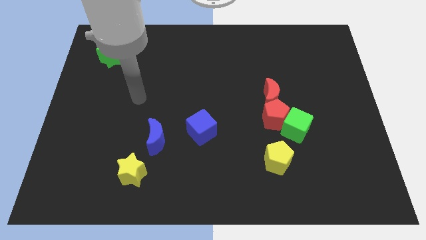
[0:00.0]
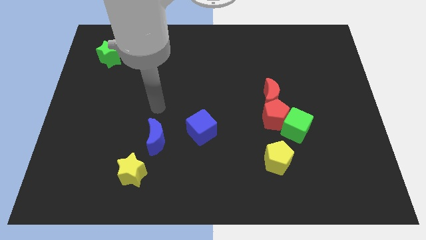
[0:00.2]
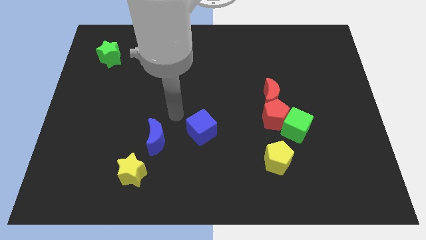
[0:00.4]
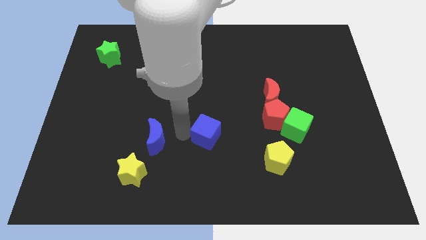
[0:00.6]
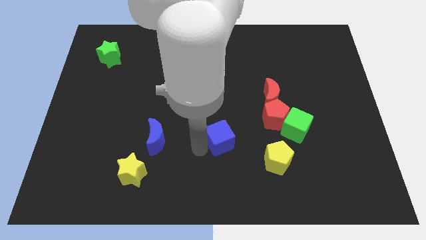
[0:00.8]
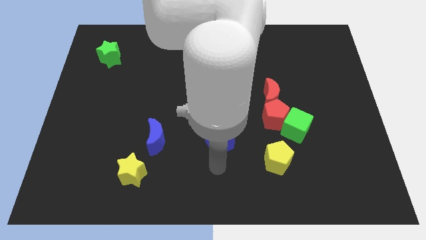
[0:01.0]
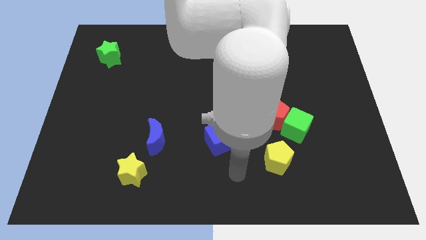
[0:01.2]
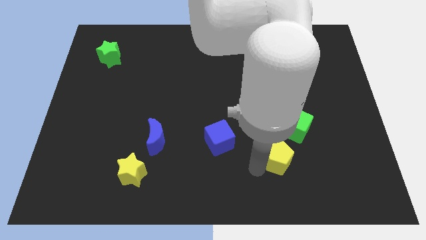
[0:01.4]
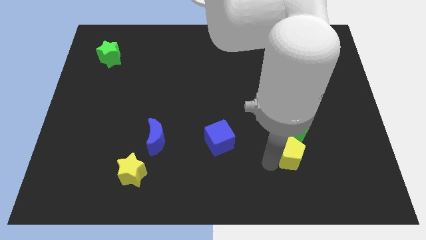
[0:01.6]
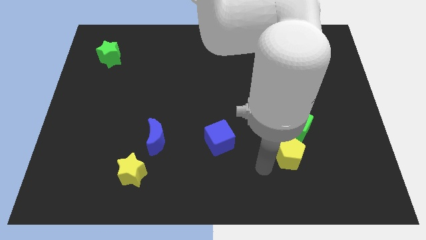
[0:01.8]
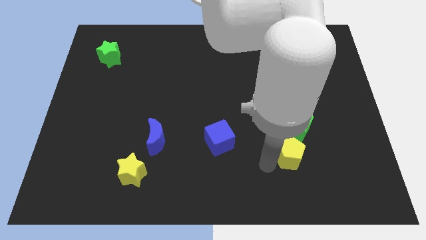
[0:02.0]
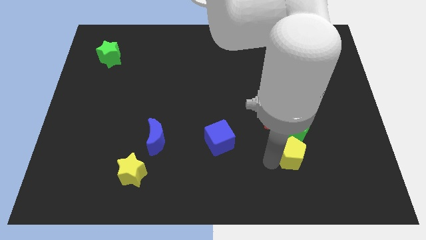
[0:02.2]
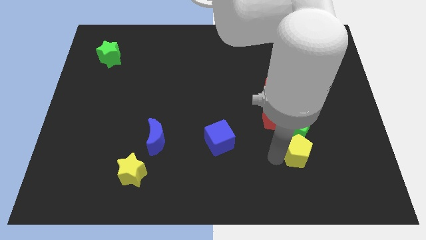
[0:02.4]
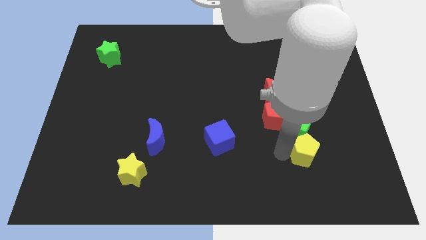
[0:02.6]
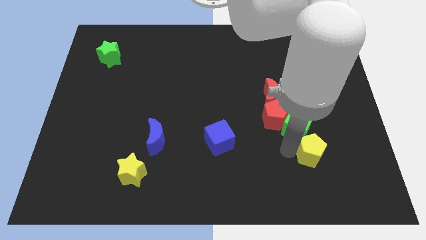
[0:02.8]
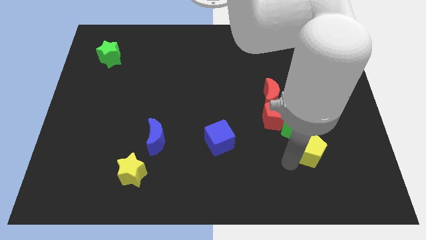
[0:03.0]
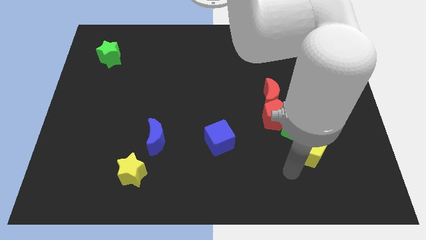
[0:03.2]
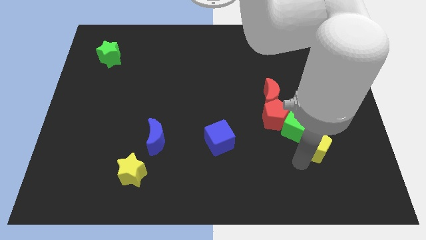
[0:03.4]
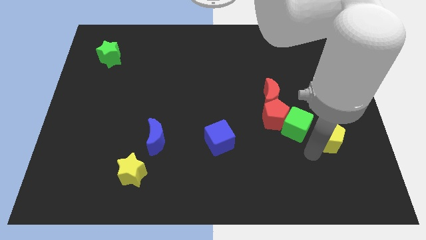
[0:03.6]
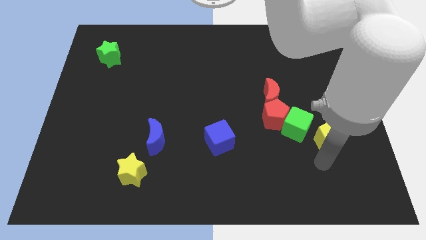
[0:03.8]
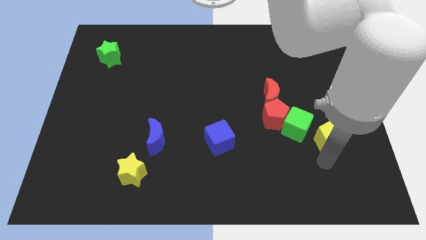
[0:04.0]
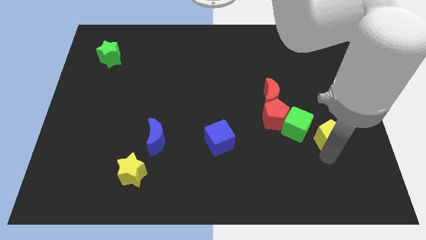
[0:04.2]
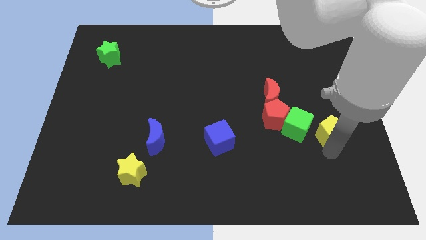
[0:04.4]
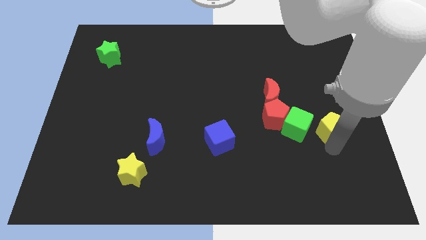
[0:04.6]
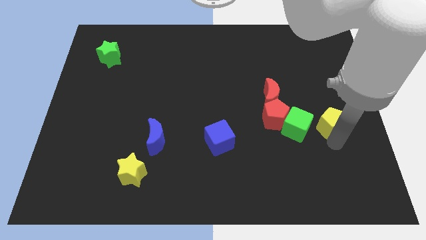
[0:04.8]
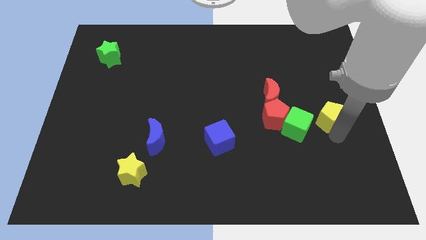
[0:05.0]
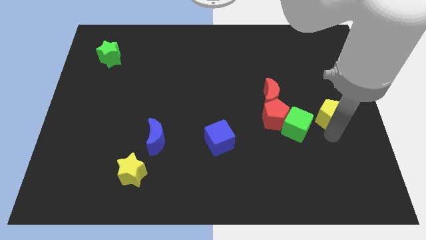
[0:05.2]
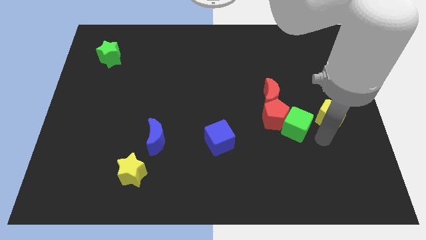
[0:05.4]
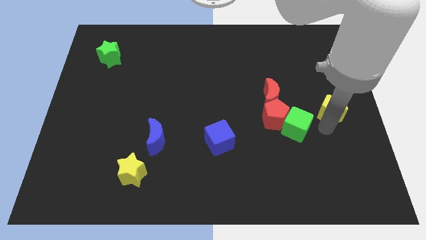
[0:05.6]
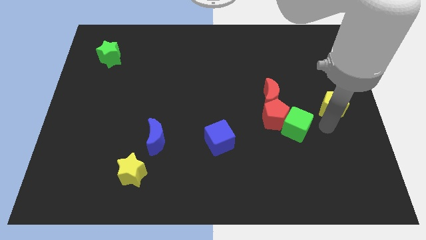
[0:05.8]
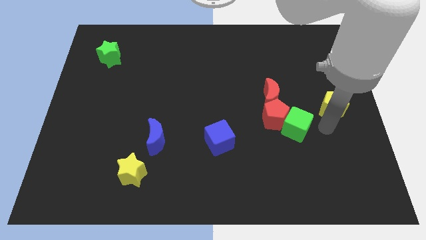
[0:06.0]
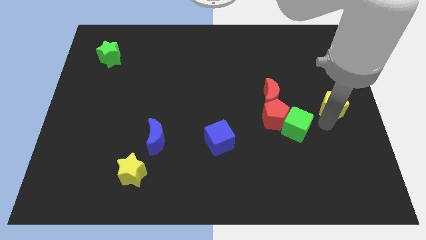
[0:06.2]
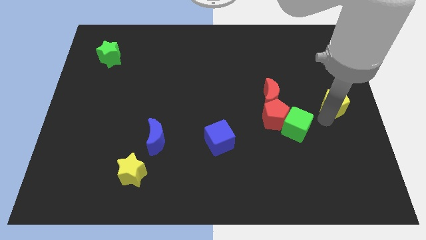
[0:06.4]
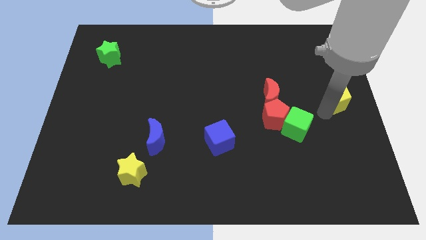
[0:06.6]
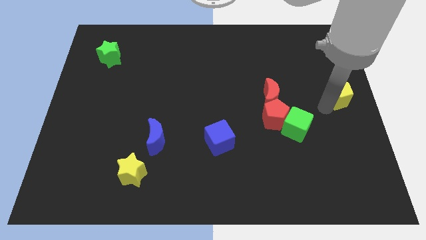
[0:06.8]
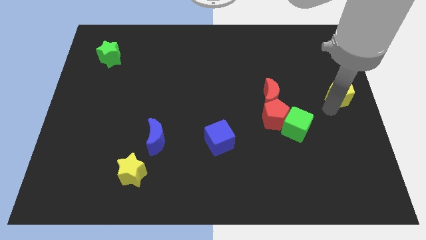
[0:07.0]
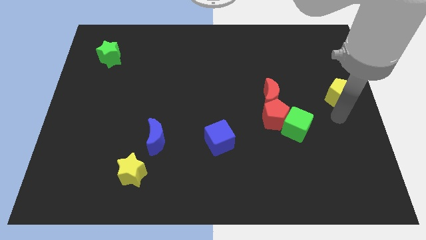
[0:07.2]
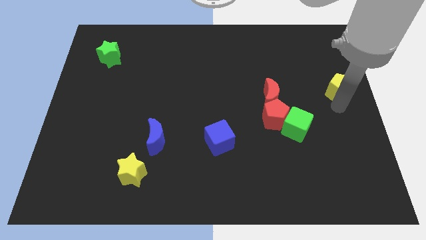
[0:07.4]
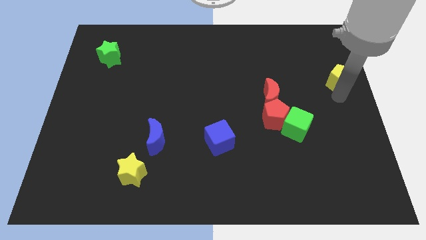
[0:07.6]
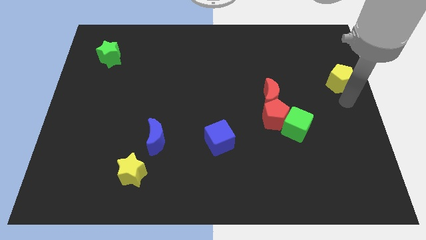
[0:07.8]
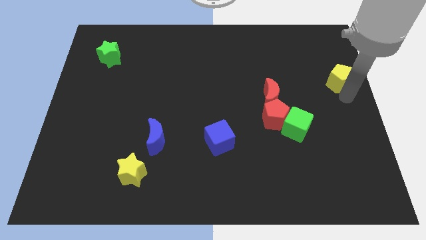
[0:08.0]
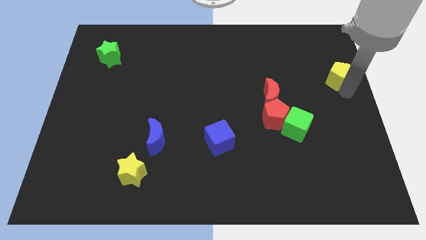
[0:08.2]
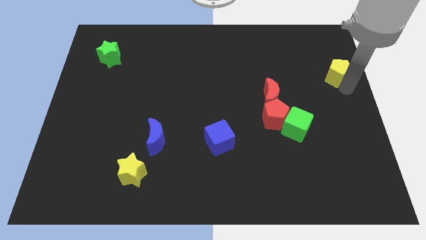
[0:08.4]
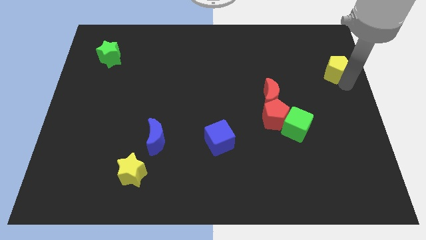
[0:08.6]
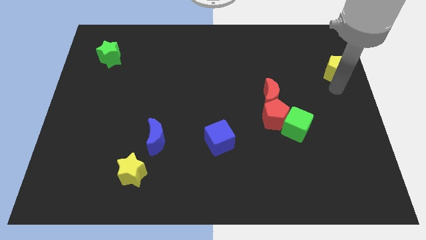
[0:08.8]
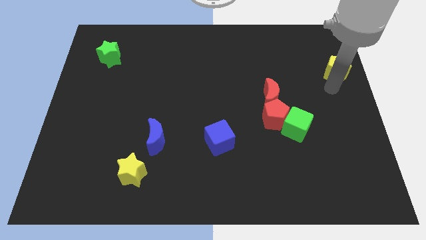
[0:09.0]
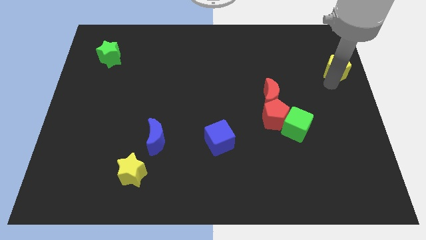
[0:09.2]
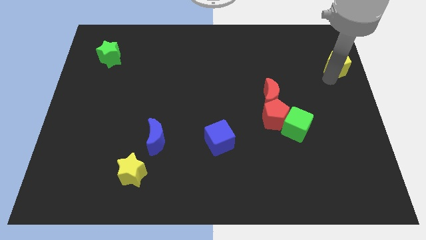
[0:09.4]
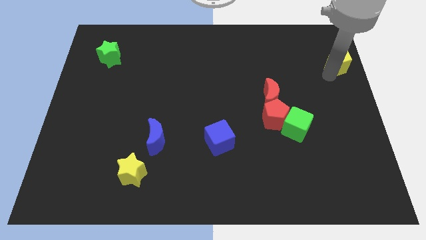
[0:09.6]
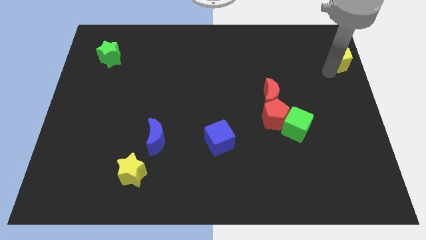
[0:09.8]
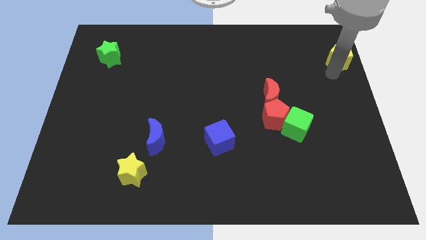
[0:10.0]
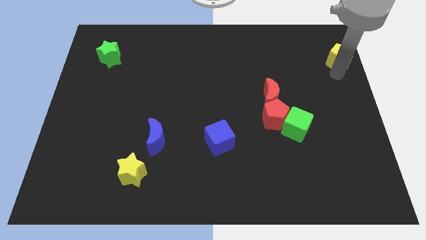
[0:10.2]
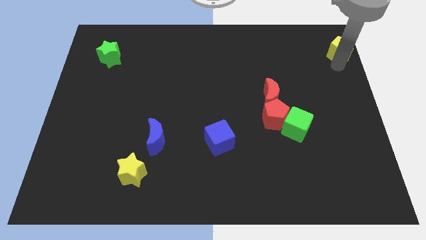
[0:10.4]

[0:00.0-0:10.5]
slide the yellow pentagon to the upper right corner

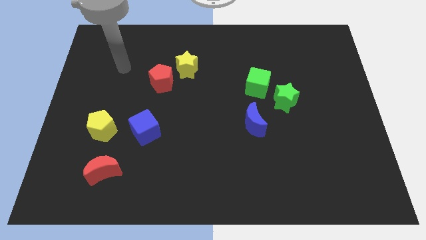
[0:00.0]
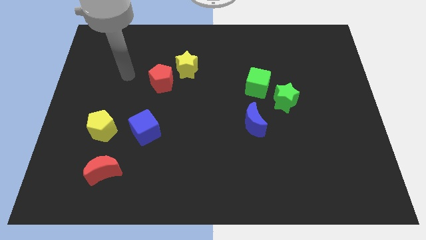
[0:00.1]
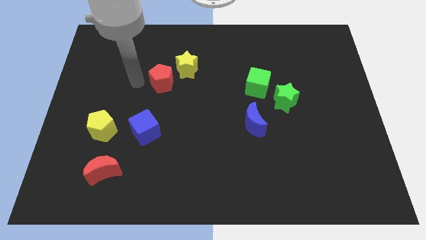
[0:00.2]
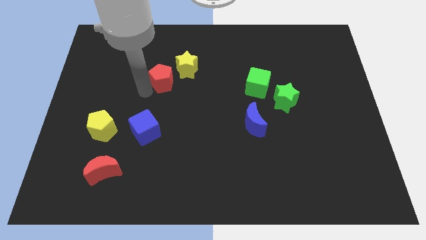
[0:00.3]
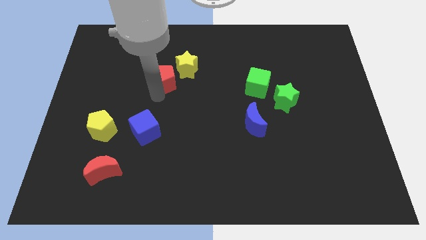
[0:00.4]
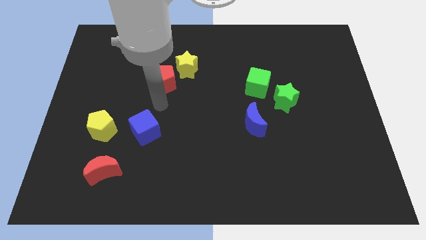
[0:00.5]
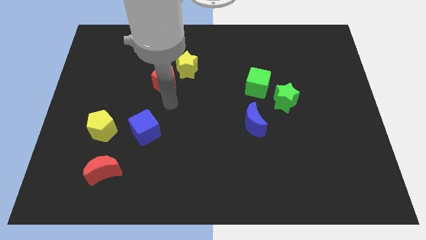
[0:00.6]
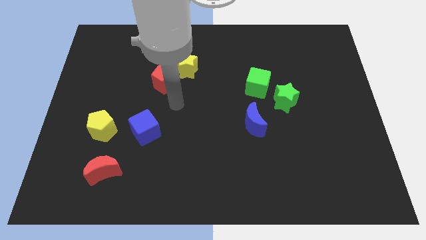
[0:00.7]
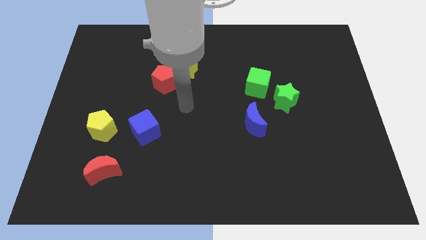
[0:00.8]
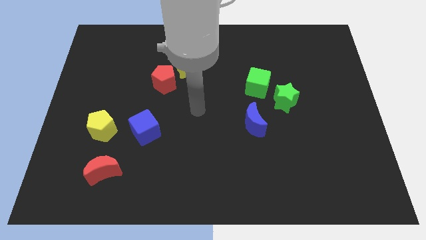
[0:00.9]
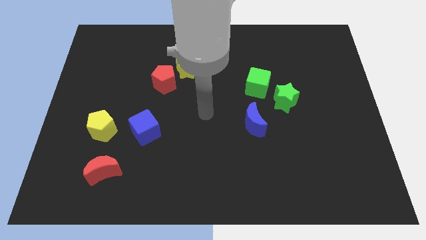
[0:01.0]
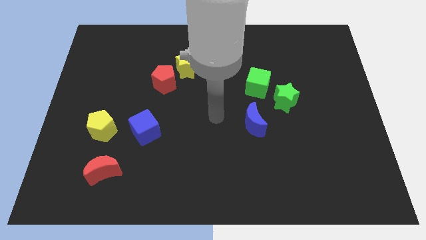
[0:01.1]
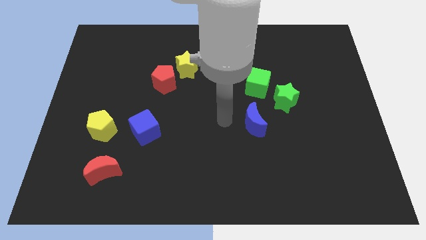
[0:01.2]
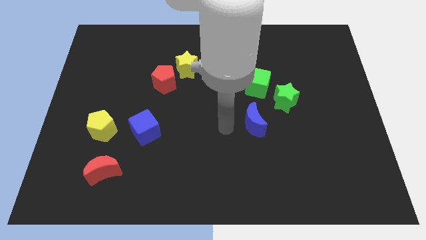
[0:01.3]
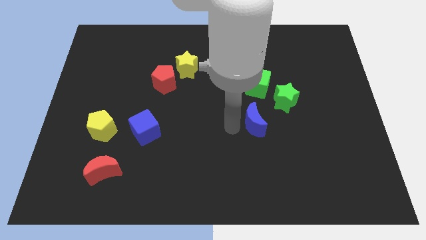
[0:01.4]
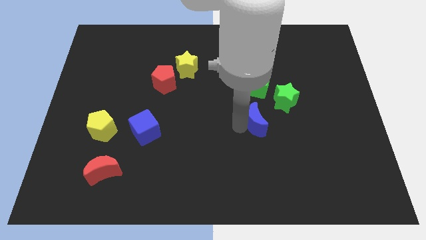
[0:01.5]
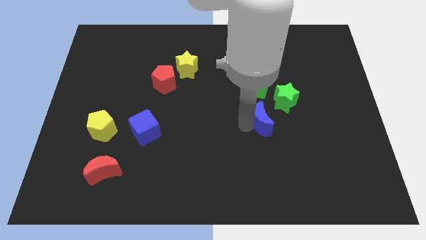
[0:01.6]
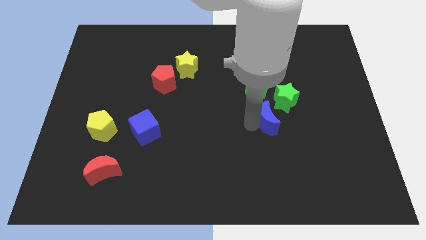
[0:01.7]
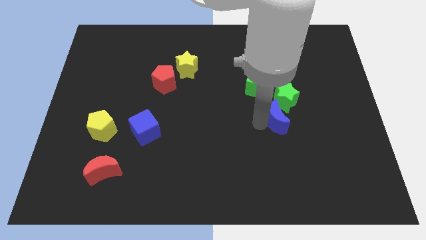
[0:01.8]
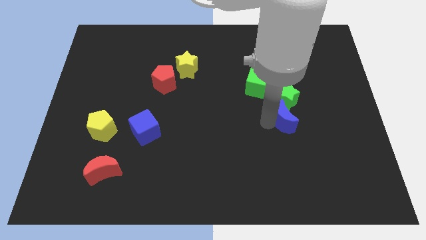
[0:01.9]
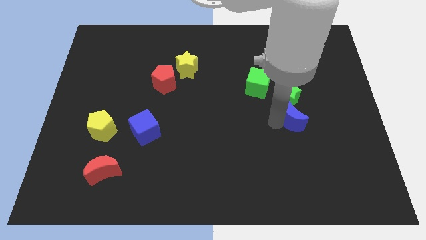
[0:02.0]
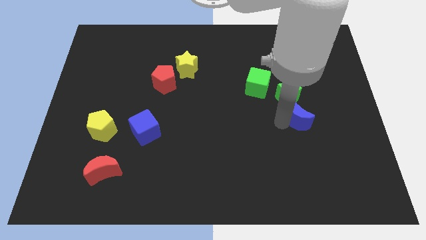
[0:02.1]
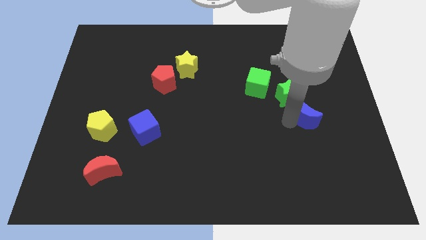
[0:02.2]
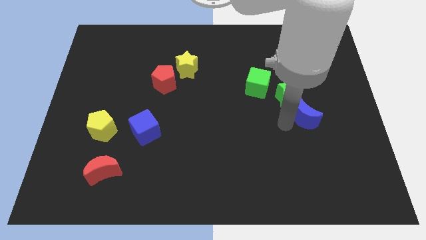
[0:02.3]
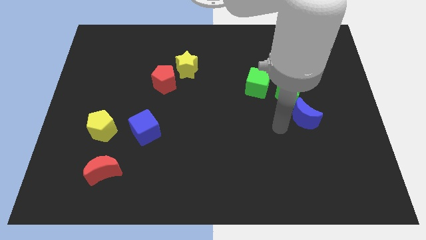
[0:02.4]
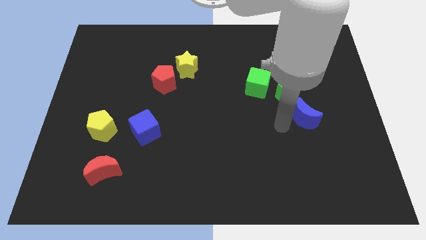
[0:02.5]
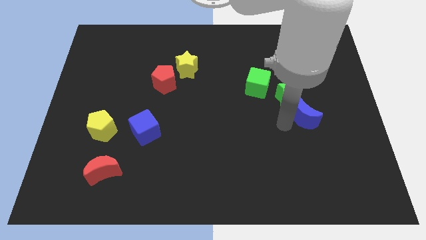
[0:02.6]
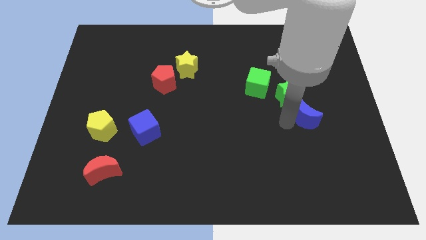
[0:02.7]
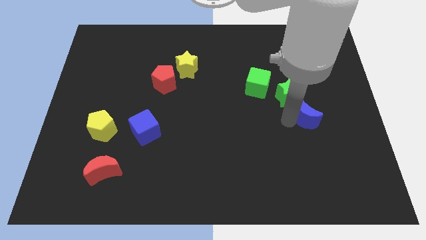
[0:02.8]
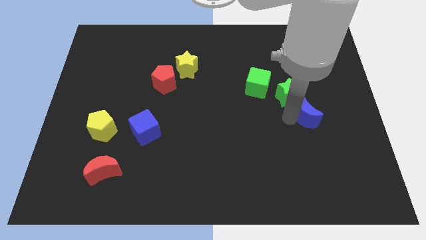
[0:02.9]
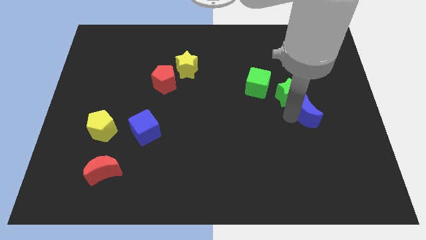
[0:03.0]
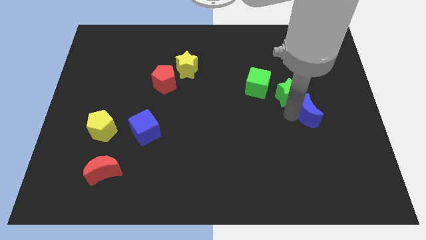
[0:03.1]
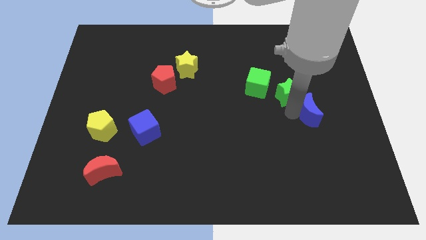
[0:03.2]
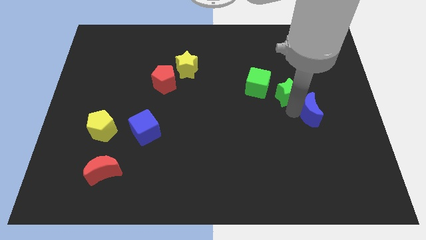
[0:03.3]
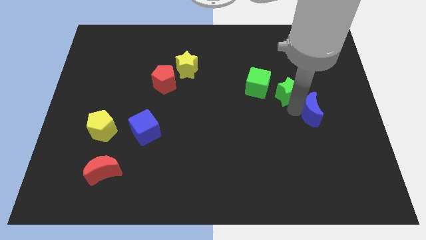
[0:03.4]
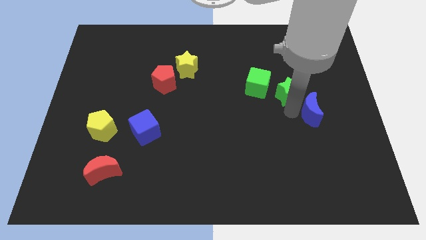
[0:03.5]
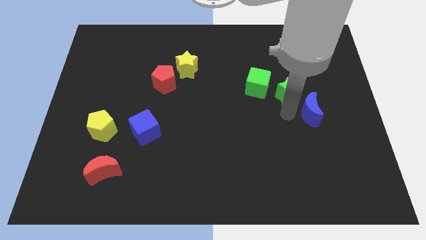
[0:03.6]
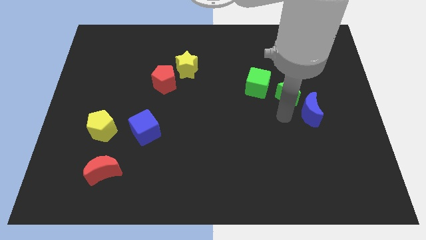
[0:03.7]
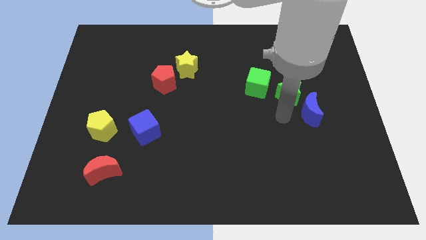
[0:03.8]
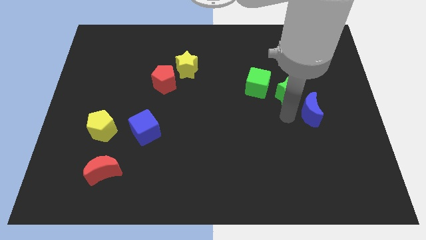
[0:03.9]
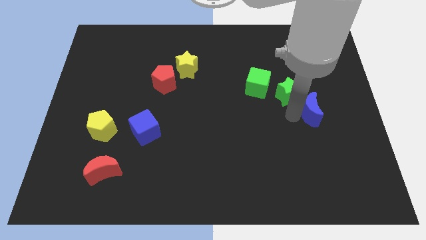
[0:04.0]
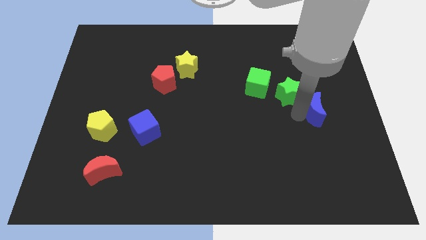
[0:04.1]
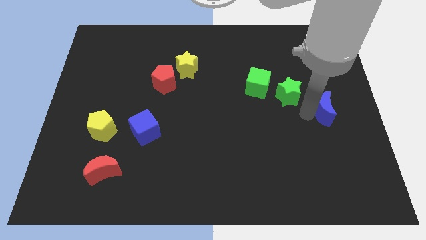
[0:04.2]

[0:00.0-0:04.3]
move the blue moon to the center right
